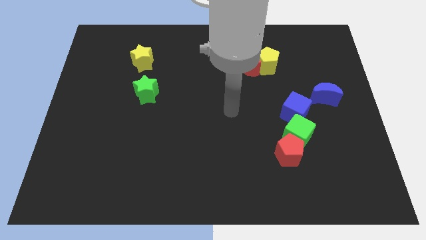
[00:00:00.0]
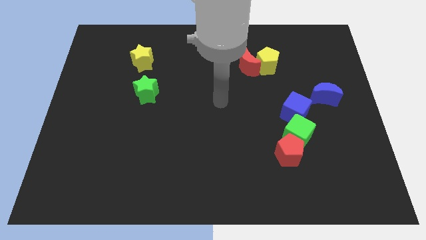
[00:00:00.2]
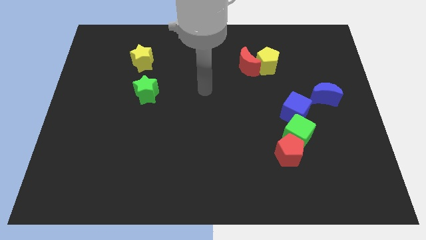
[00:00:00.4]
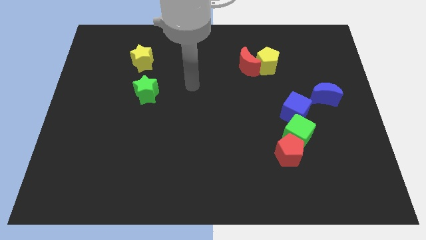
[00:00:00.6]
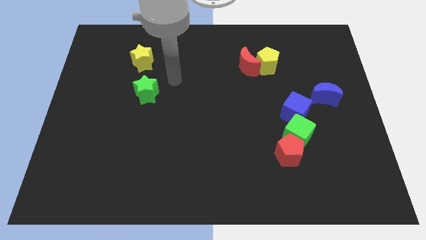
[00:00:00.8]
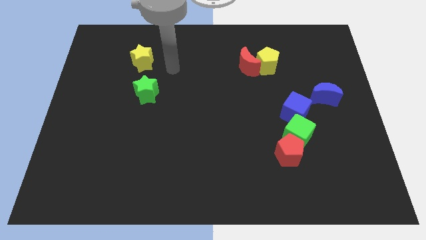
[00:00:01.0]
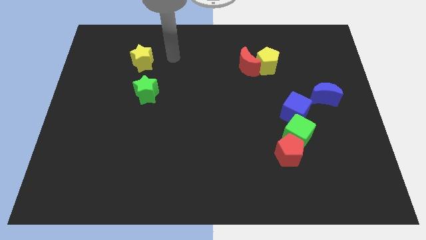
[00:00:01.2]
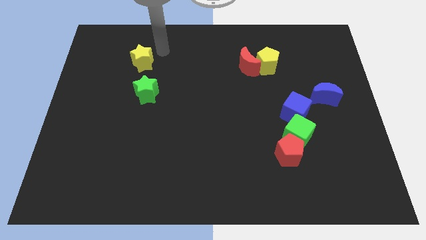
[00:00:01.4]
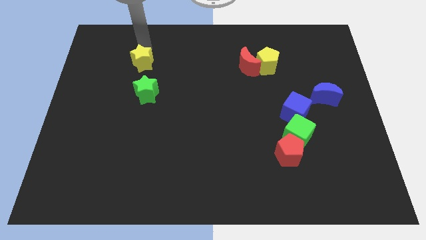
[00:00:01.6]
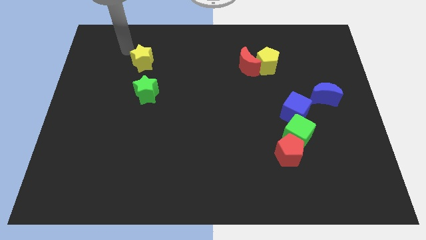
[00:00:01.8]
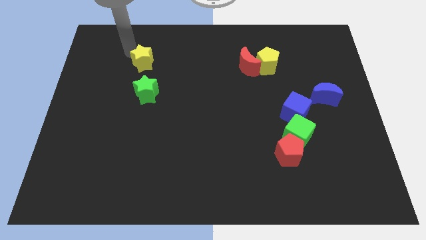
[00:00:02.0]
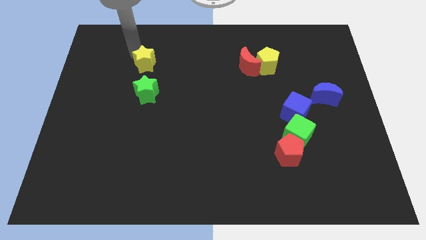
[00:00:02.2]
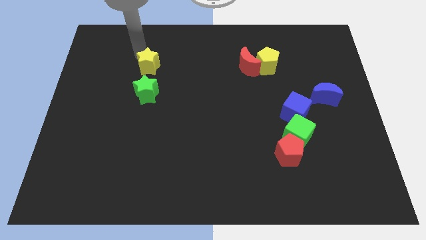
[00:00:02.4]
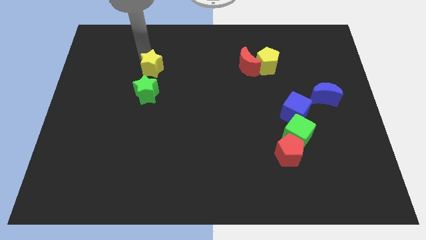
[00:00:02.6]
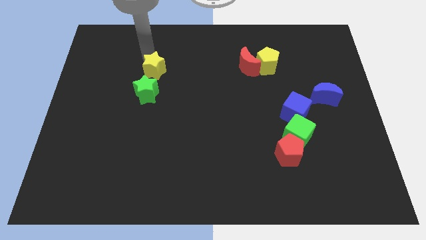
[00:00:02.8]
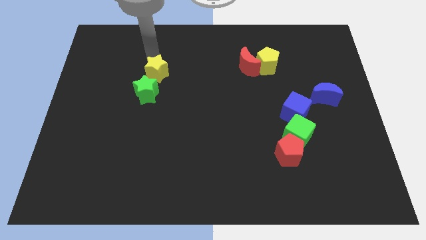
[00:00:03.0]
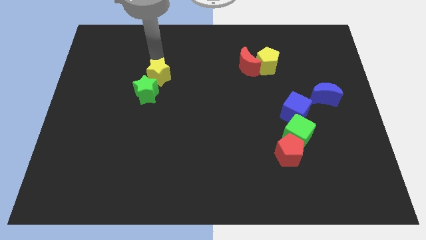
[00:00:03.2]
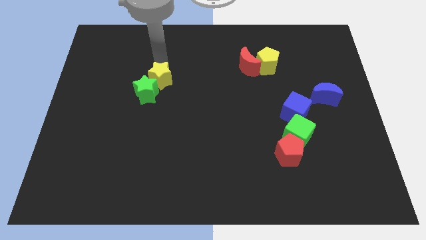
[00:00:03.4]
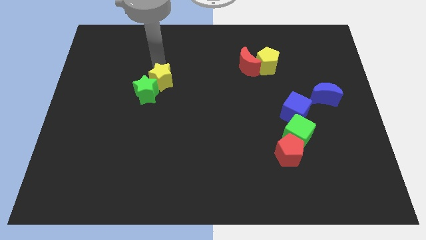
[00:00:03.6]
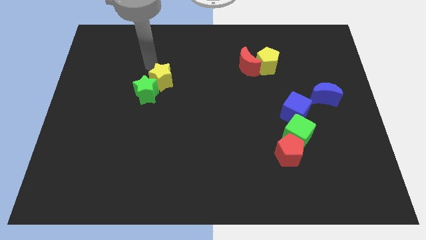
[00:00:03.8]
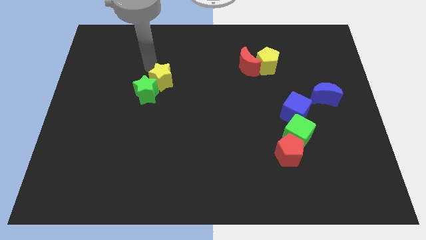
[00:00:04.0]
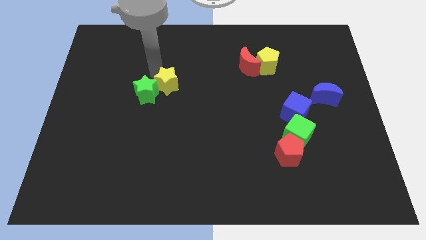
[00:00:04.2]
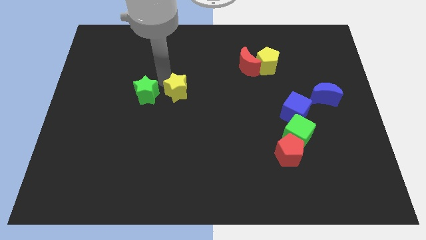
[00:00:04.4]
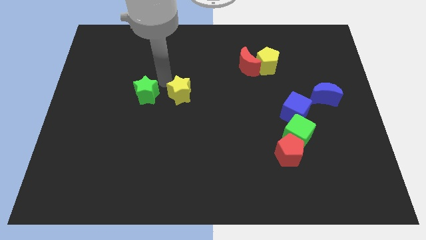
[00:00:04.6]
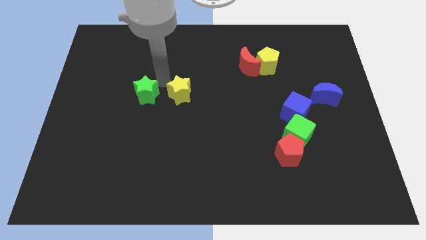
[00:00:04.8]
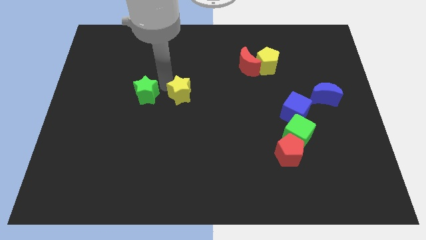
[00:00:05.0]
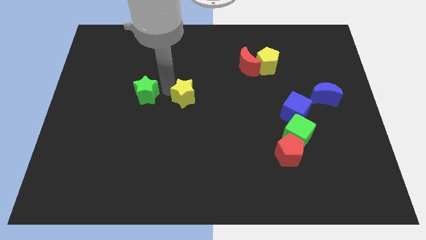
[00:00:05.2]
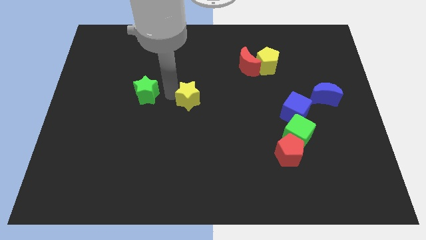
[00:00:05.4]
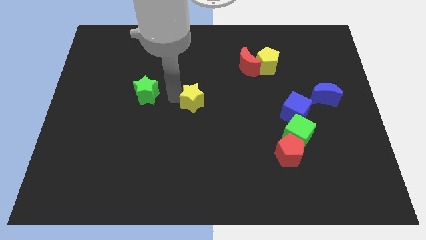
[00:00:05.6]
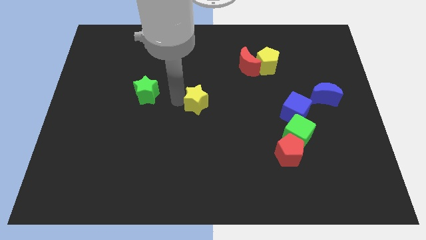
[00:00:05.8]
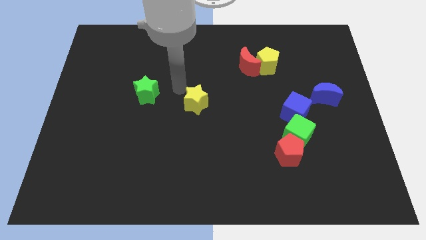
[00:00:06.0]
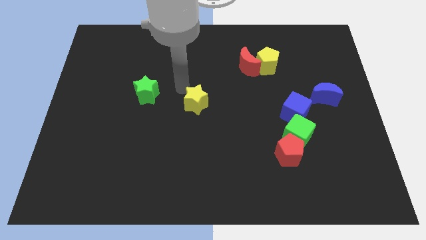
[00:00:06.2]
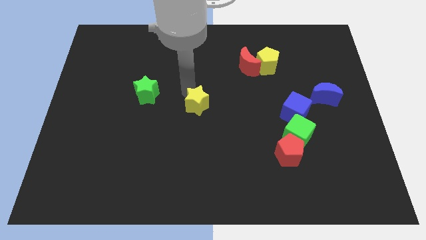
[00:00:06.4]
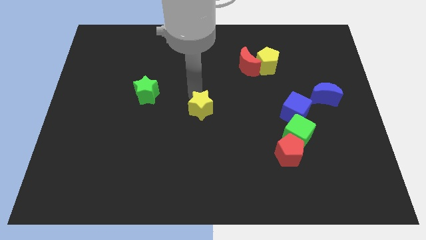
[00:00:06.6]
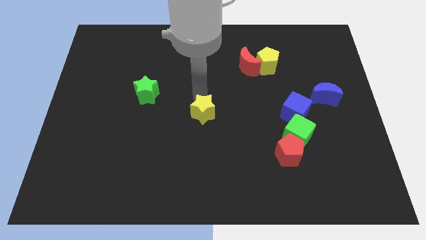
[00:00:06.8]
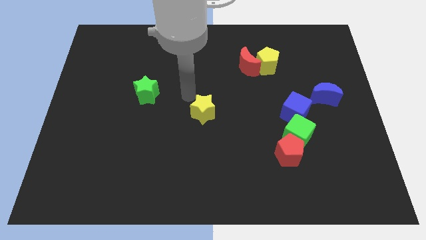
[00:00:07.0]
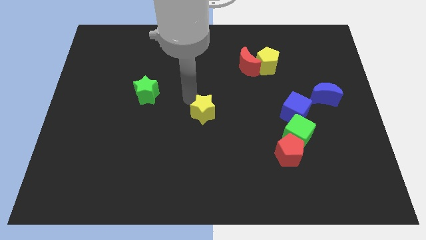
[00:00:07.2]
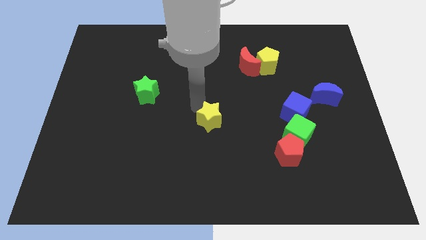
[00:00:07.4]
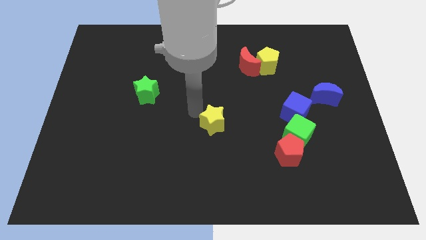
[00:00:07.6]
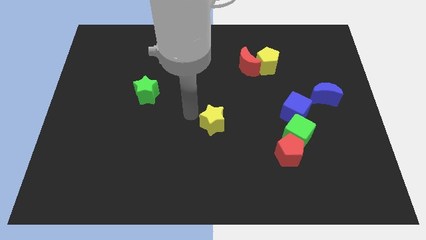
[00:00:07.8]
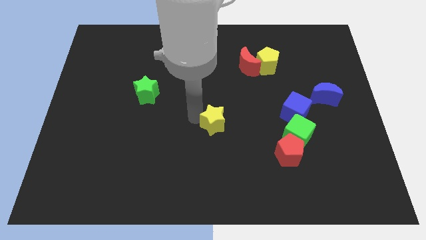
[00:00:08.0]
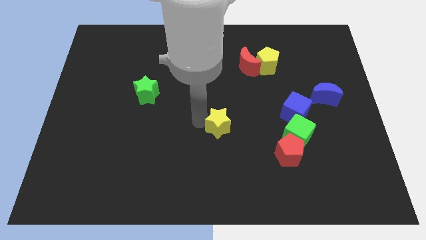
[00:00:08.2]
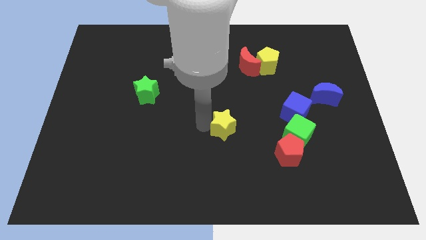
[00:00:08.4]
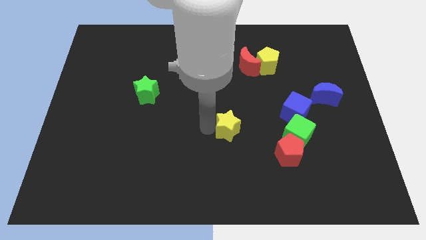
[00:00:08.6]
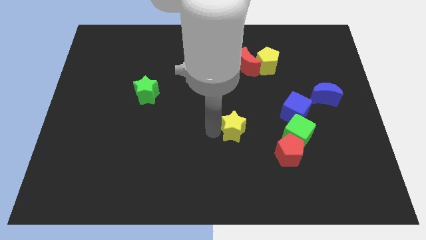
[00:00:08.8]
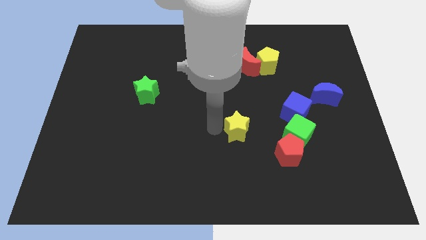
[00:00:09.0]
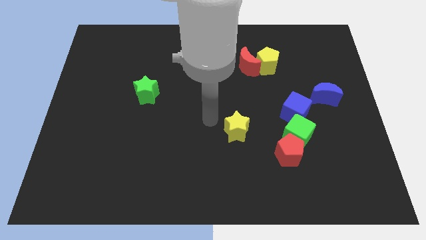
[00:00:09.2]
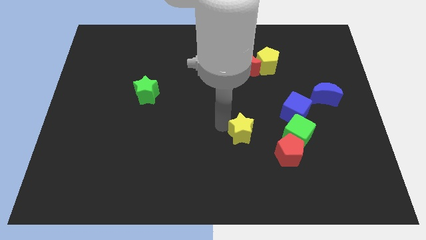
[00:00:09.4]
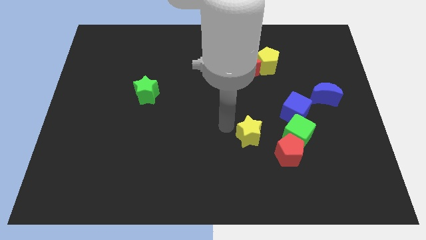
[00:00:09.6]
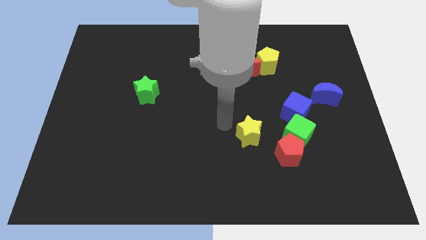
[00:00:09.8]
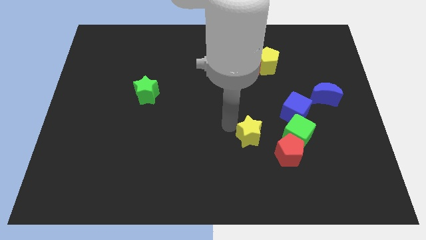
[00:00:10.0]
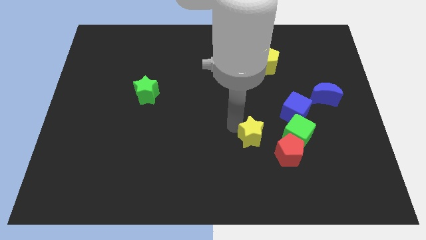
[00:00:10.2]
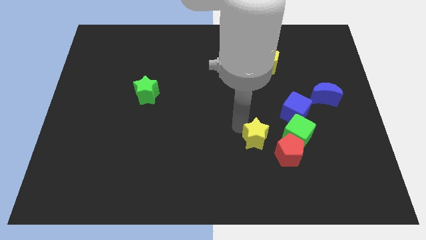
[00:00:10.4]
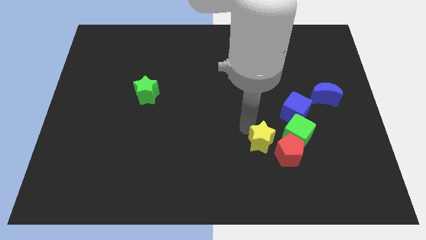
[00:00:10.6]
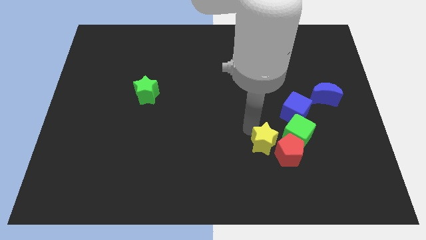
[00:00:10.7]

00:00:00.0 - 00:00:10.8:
put the yellow star towards the red pentagon

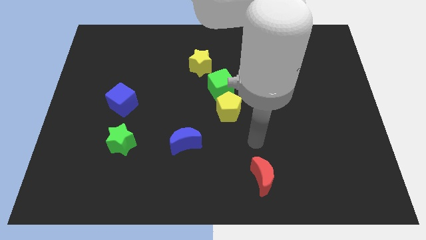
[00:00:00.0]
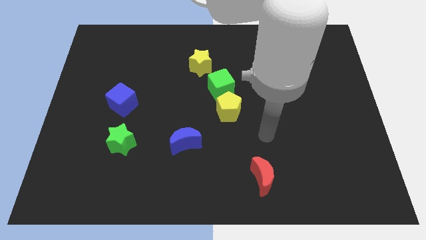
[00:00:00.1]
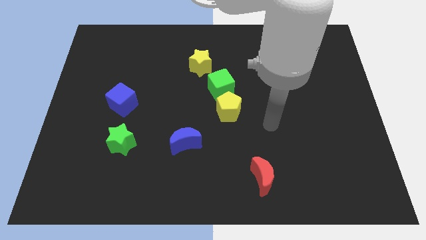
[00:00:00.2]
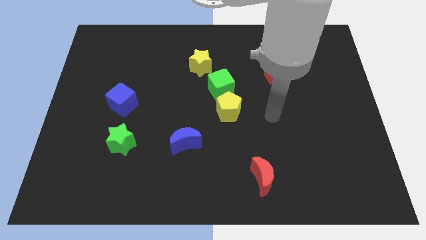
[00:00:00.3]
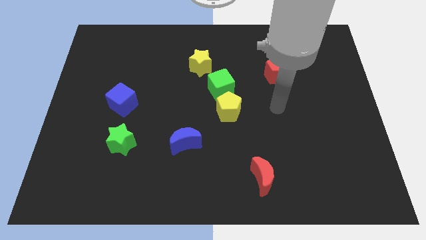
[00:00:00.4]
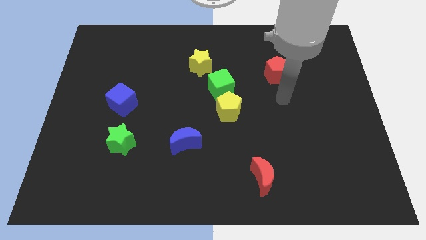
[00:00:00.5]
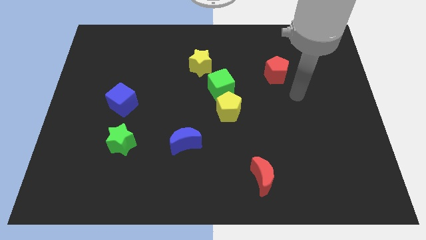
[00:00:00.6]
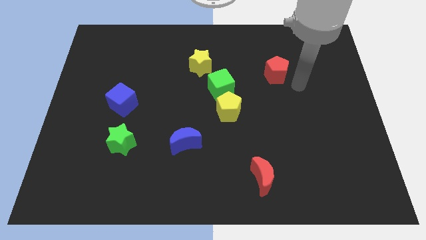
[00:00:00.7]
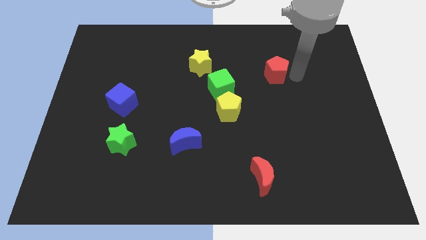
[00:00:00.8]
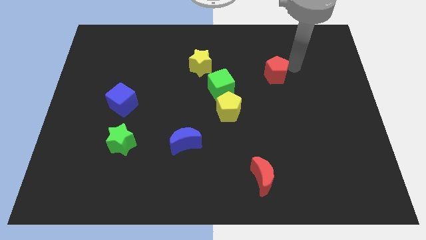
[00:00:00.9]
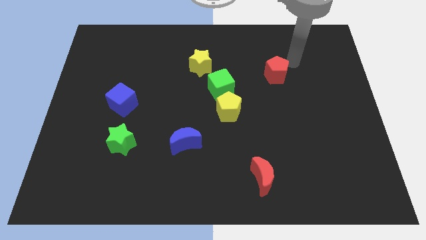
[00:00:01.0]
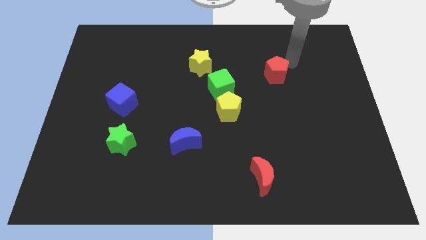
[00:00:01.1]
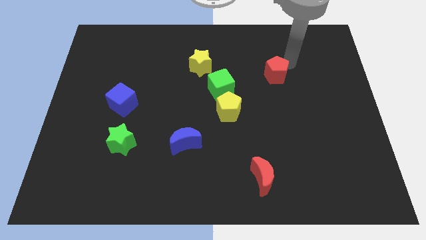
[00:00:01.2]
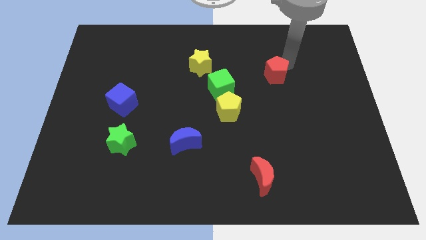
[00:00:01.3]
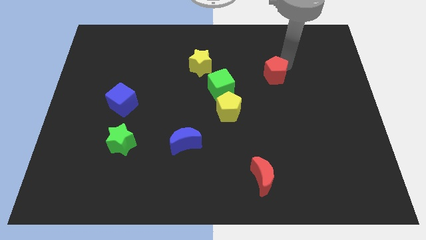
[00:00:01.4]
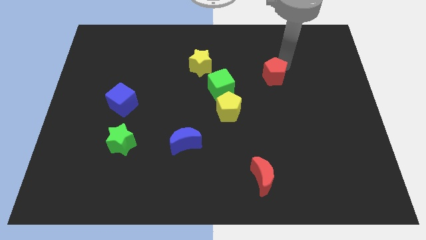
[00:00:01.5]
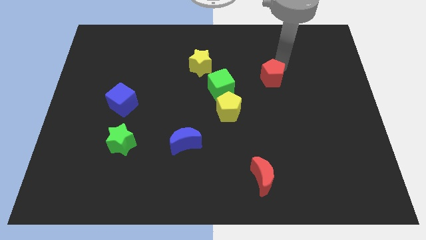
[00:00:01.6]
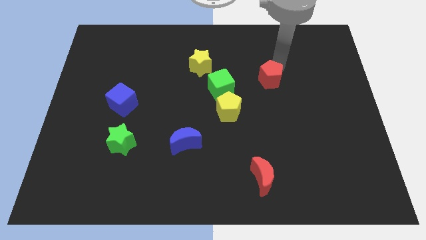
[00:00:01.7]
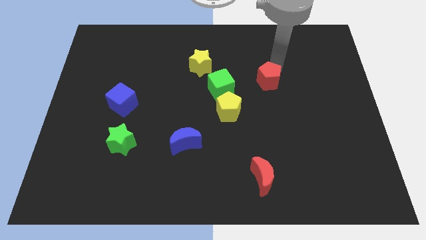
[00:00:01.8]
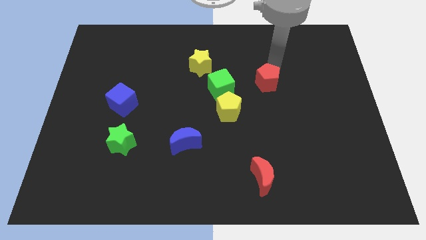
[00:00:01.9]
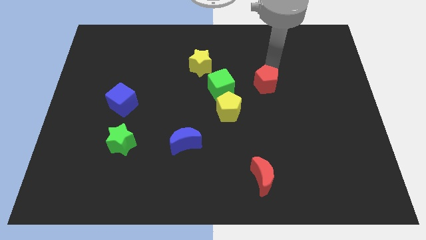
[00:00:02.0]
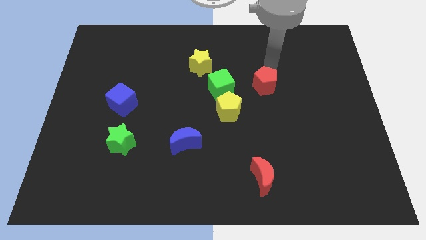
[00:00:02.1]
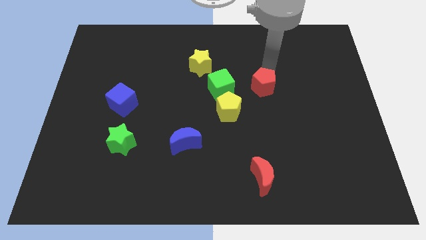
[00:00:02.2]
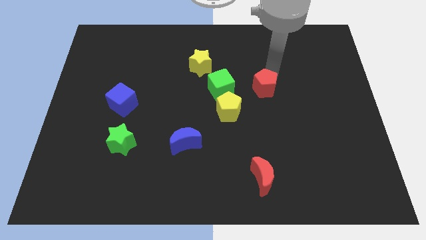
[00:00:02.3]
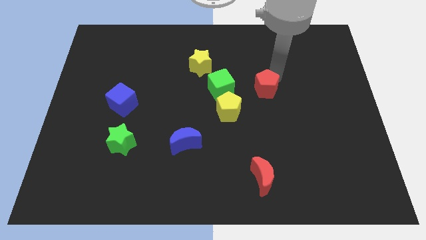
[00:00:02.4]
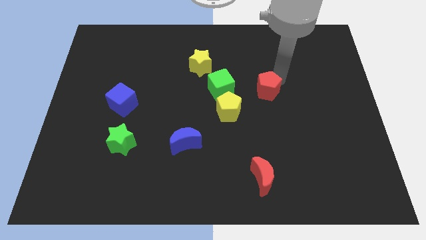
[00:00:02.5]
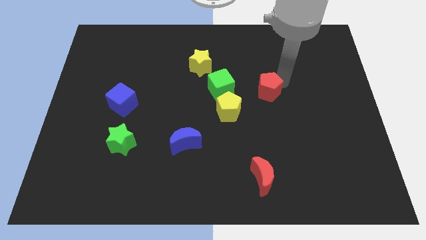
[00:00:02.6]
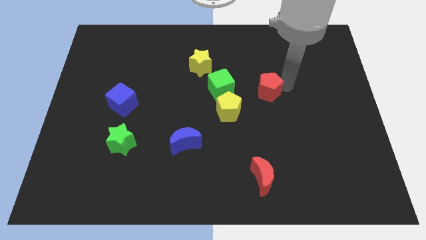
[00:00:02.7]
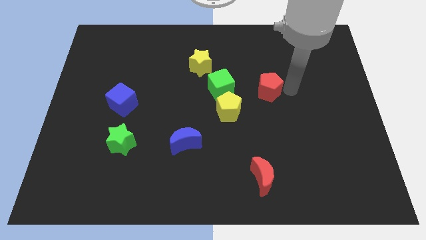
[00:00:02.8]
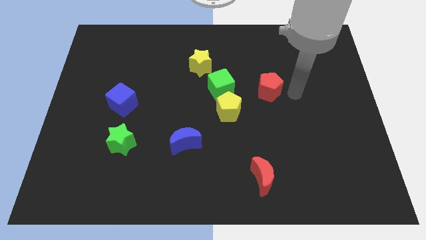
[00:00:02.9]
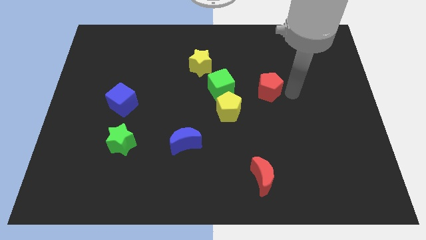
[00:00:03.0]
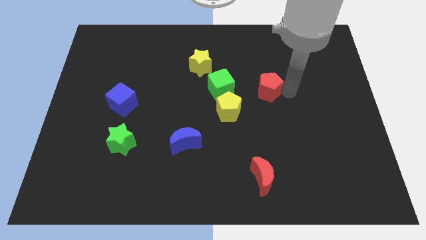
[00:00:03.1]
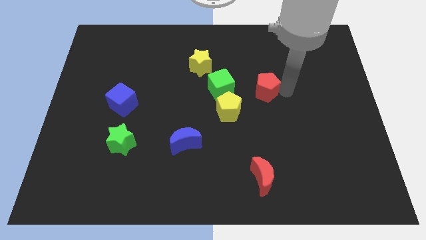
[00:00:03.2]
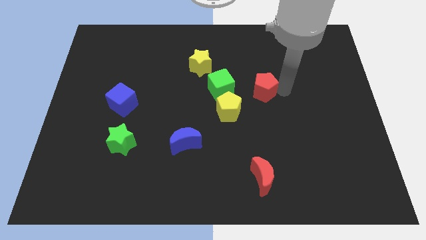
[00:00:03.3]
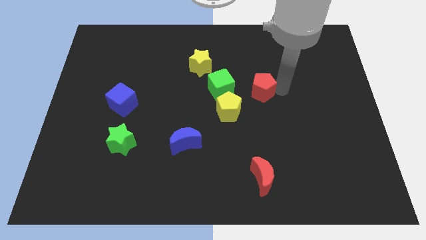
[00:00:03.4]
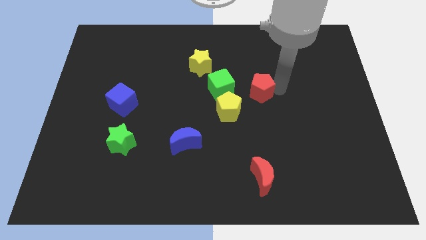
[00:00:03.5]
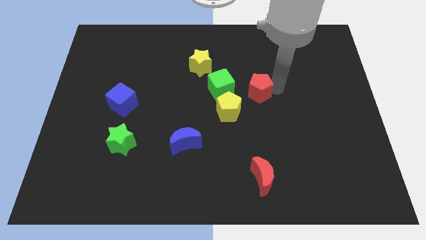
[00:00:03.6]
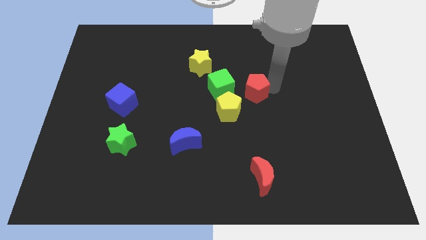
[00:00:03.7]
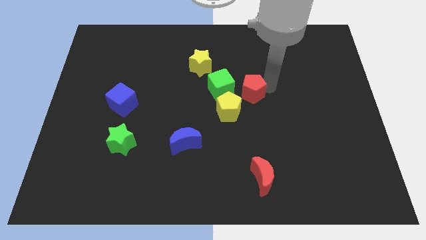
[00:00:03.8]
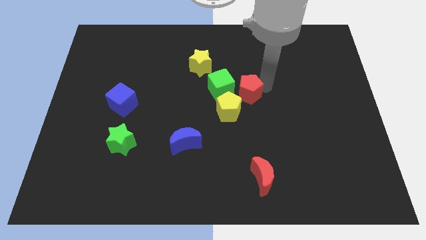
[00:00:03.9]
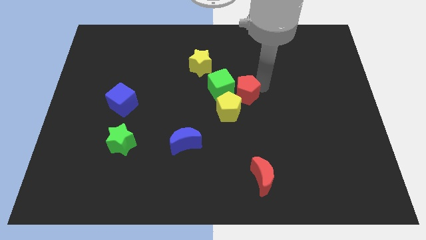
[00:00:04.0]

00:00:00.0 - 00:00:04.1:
put the red pentagon next to the green cube
